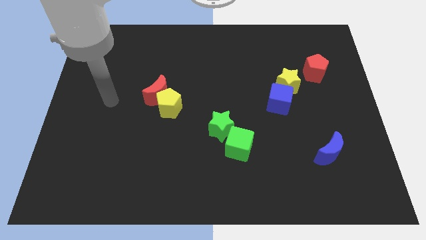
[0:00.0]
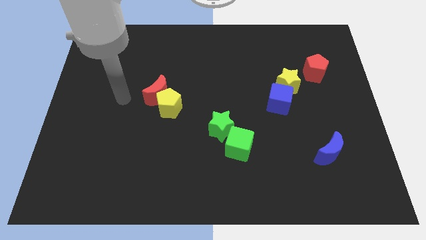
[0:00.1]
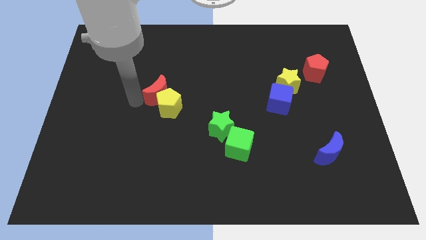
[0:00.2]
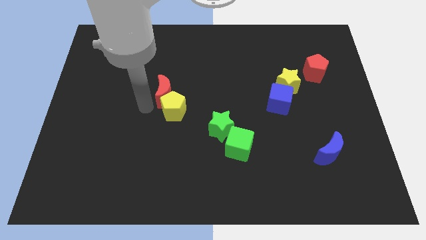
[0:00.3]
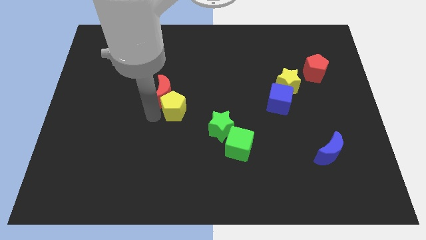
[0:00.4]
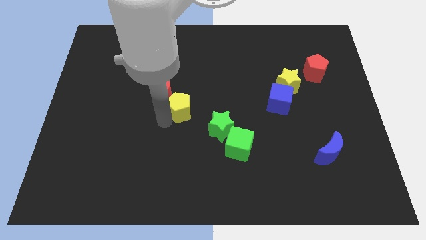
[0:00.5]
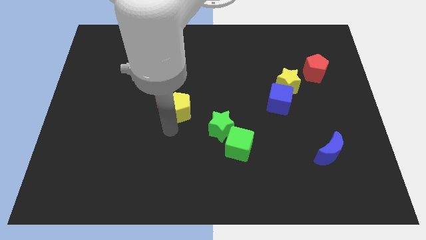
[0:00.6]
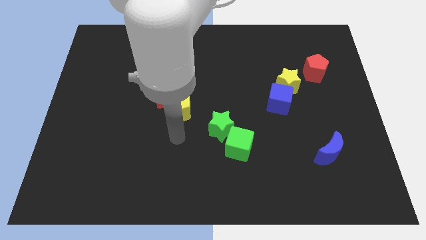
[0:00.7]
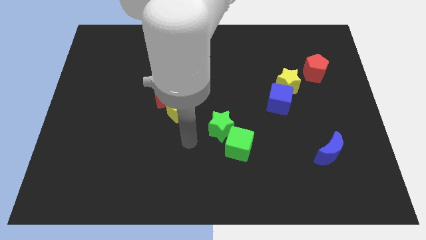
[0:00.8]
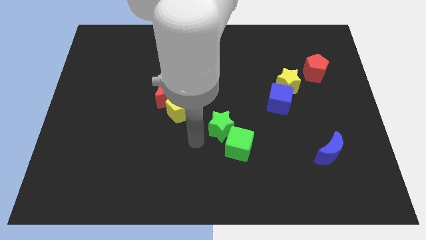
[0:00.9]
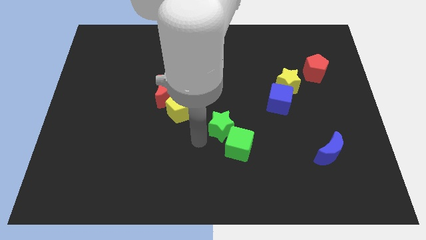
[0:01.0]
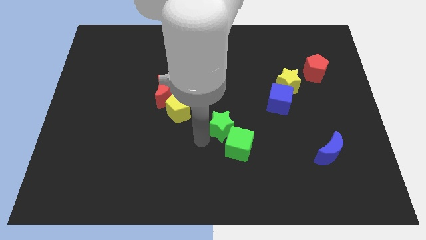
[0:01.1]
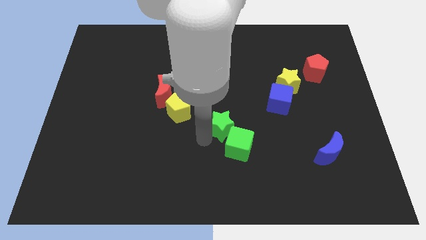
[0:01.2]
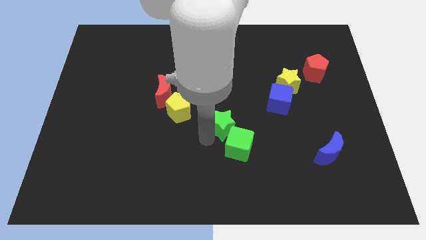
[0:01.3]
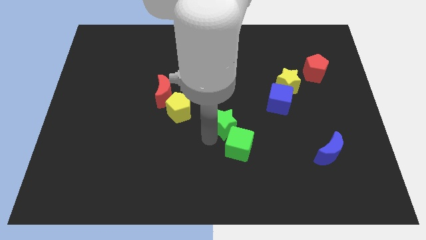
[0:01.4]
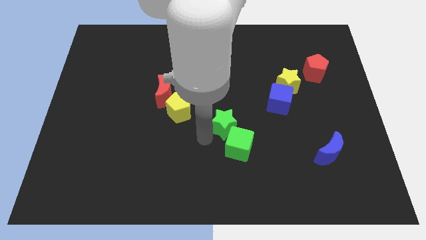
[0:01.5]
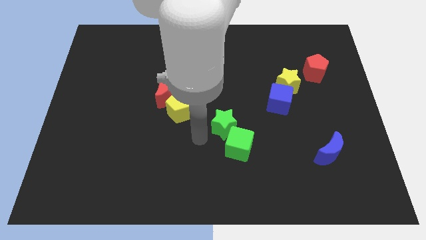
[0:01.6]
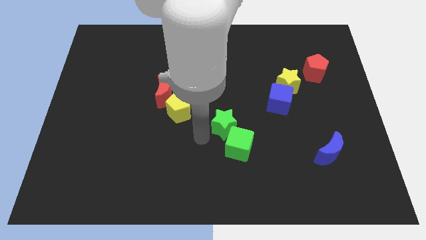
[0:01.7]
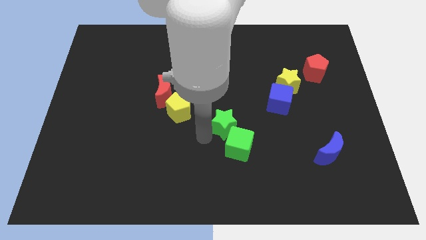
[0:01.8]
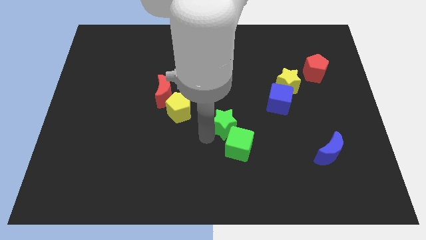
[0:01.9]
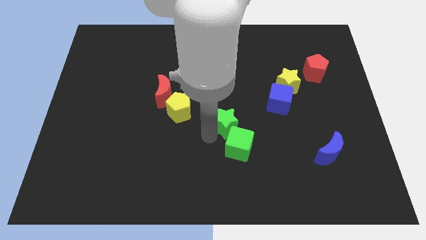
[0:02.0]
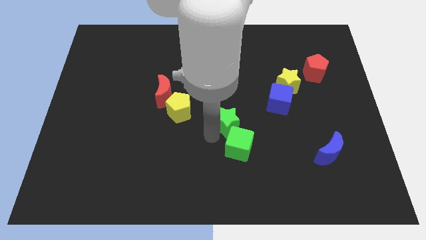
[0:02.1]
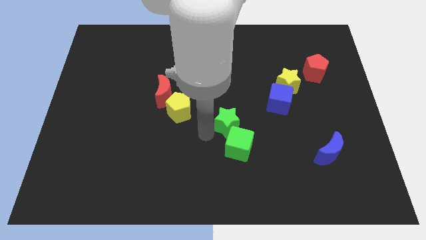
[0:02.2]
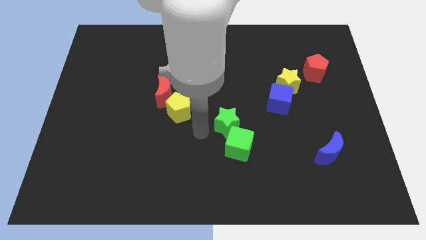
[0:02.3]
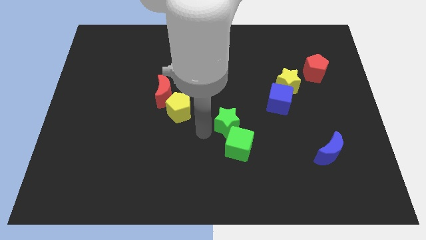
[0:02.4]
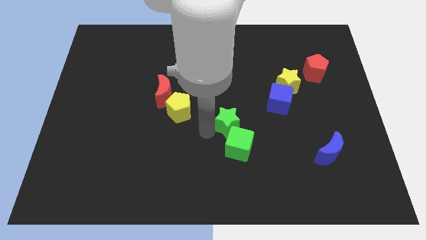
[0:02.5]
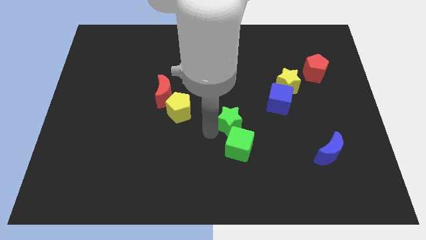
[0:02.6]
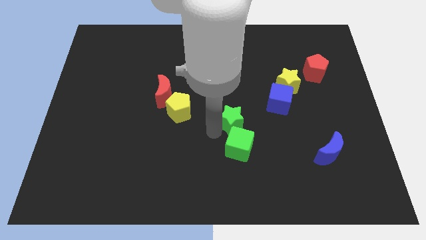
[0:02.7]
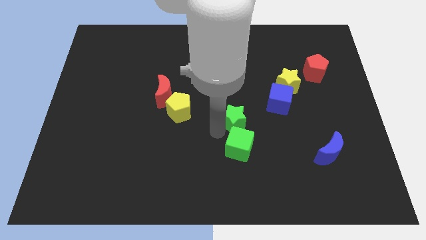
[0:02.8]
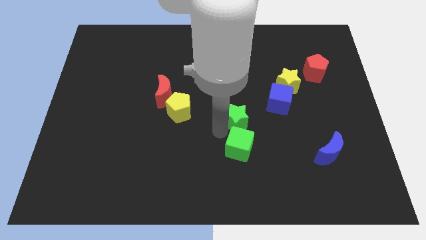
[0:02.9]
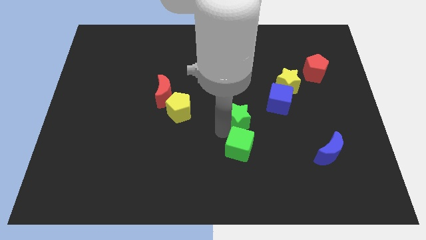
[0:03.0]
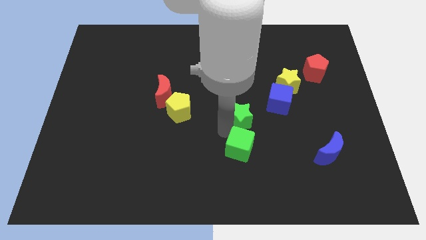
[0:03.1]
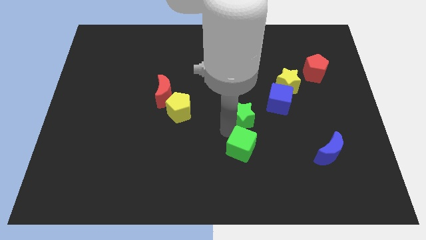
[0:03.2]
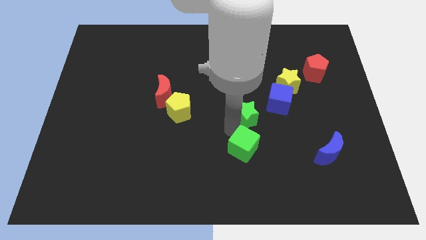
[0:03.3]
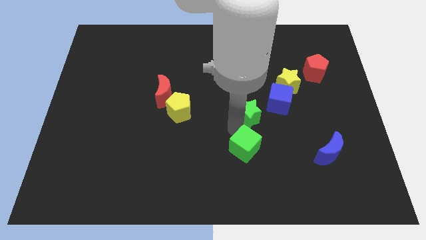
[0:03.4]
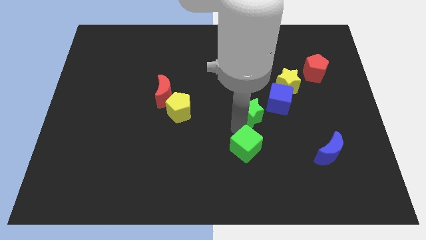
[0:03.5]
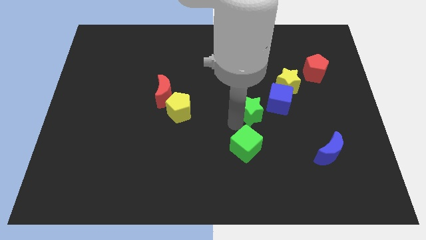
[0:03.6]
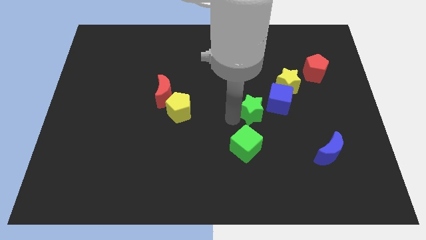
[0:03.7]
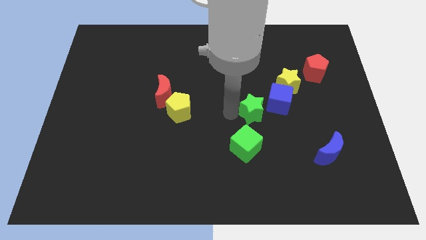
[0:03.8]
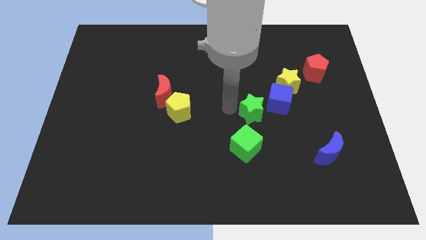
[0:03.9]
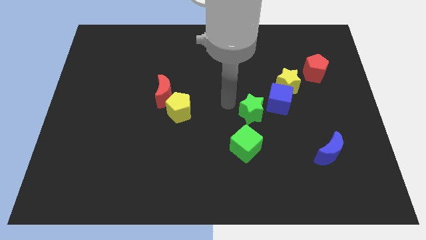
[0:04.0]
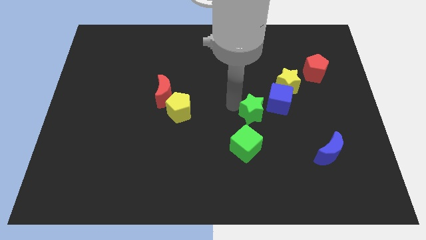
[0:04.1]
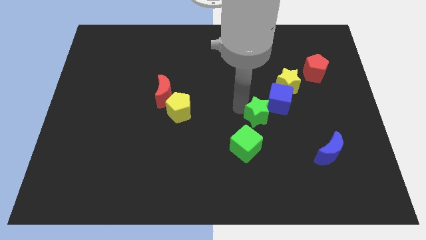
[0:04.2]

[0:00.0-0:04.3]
slide the green star slightly to the right

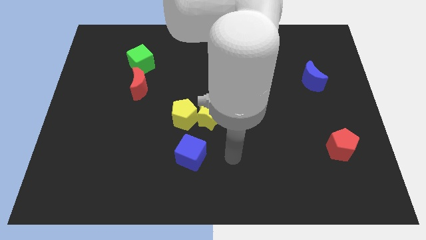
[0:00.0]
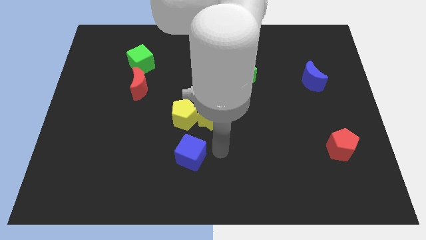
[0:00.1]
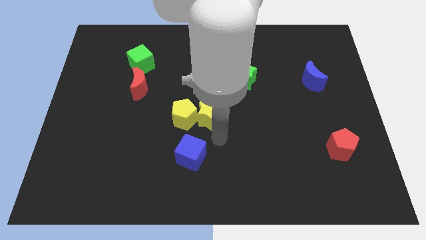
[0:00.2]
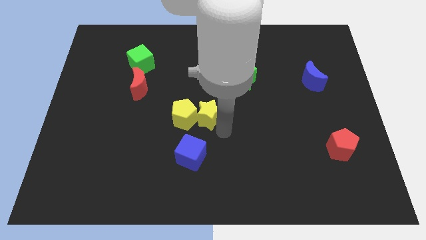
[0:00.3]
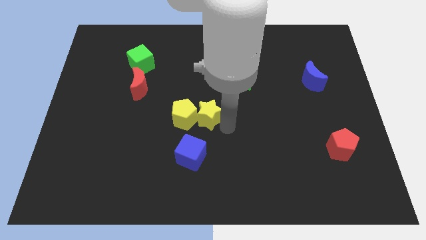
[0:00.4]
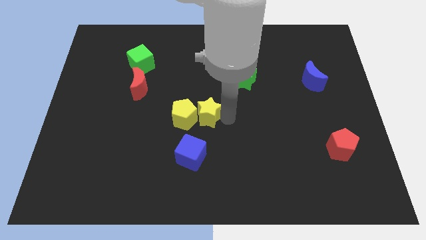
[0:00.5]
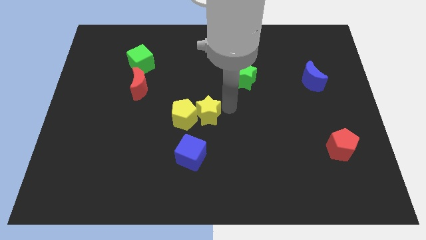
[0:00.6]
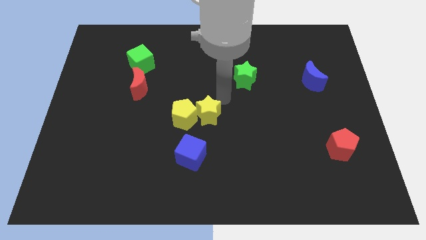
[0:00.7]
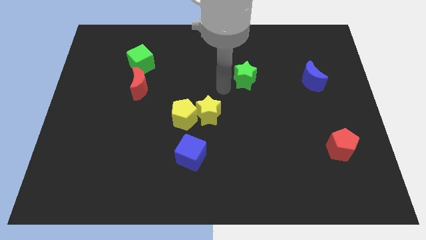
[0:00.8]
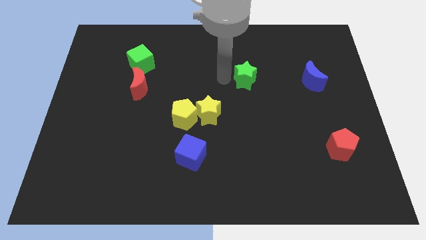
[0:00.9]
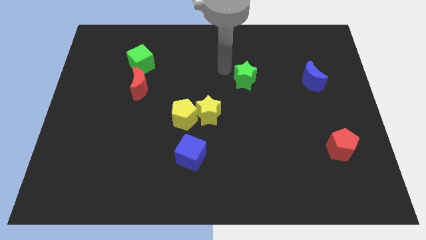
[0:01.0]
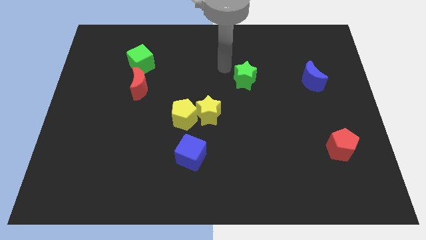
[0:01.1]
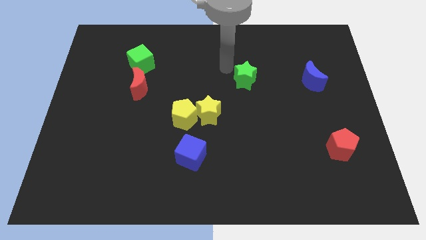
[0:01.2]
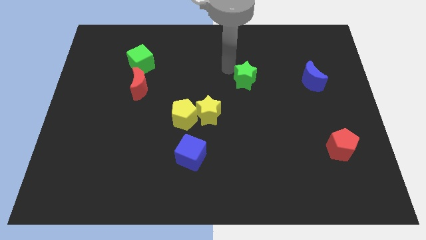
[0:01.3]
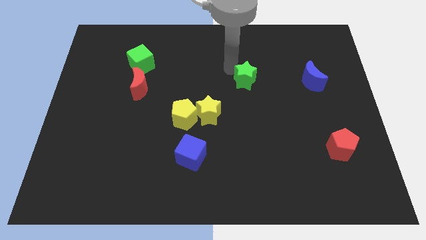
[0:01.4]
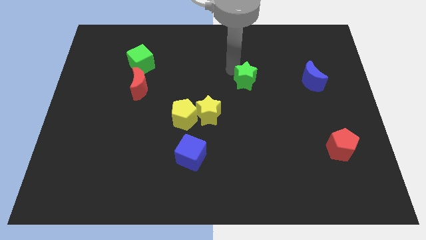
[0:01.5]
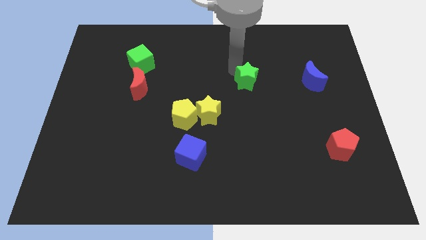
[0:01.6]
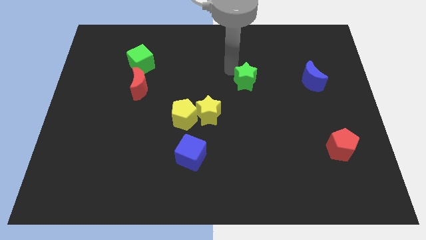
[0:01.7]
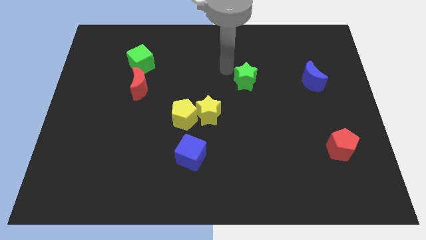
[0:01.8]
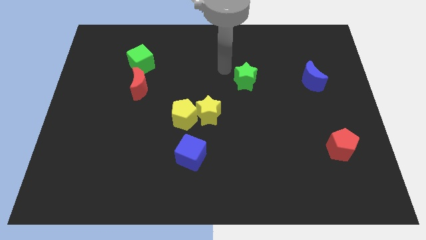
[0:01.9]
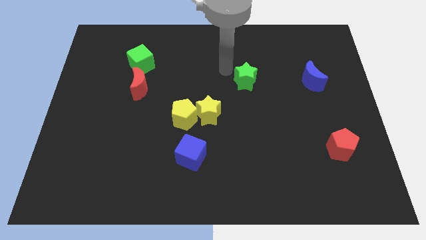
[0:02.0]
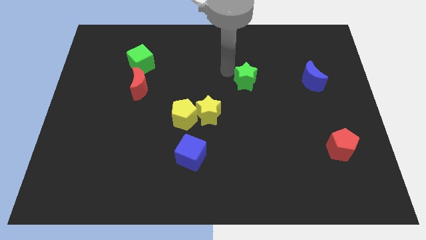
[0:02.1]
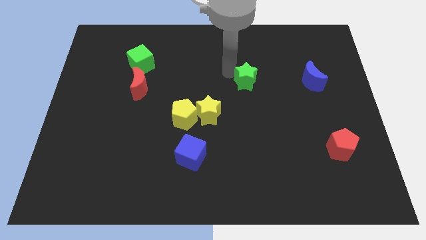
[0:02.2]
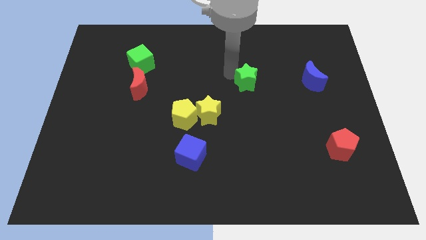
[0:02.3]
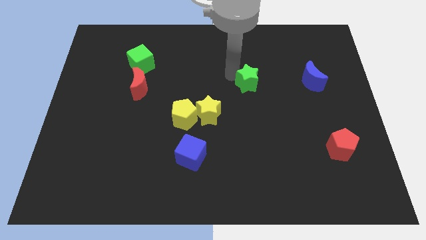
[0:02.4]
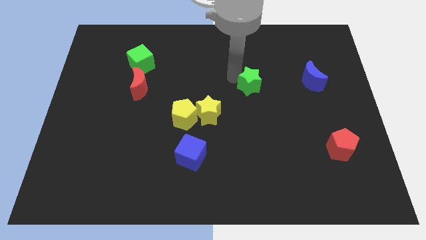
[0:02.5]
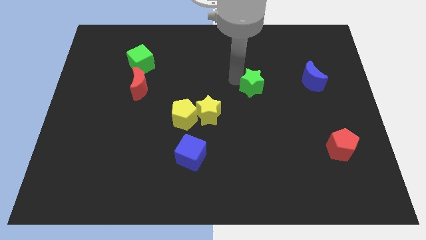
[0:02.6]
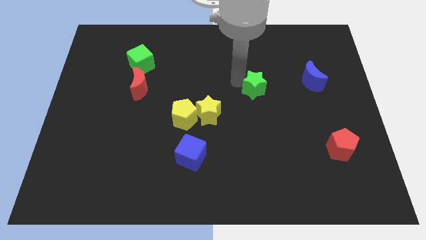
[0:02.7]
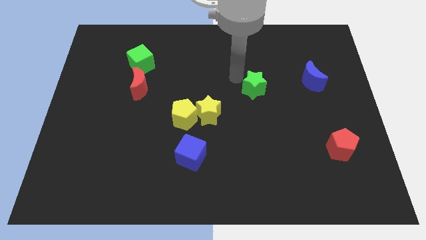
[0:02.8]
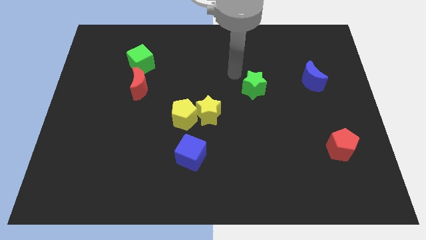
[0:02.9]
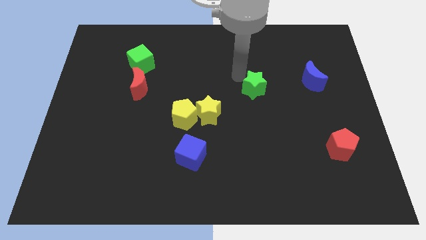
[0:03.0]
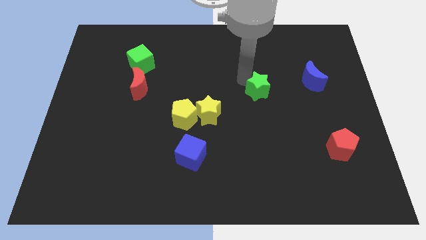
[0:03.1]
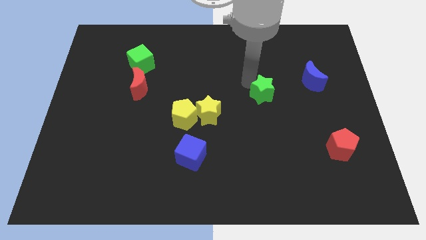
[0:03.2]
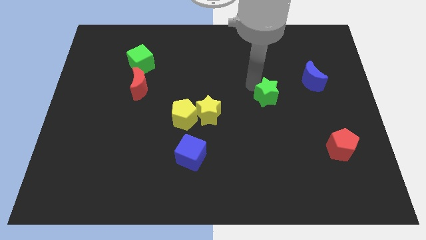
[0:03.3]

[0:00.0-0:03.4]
slide the green star downwards and then to the right a little bit

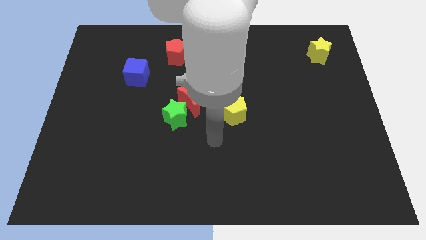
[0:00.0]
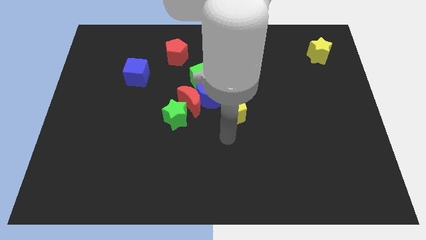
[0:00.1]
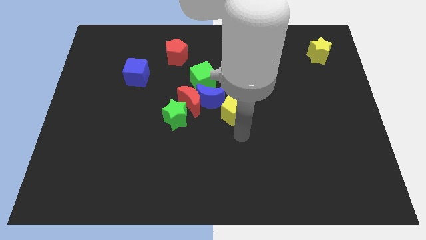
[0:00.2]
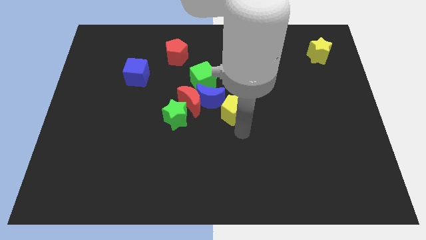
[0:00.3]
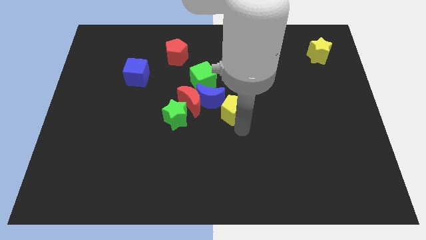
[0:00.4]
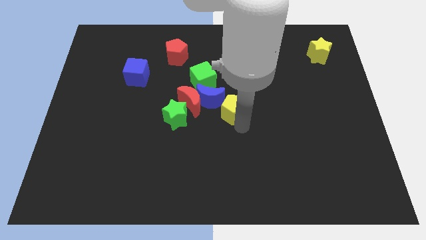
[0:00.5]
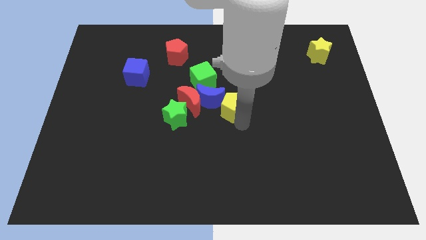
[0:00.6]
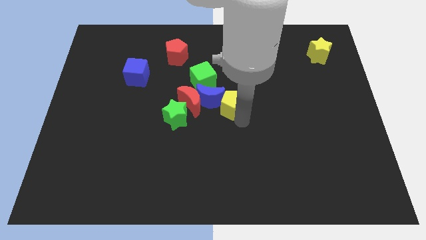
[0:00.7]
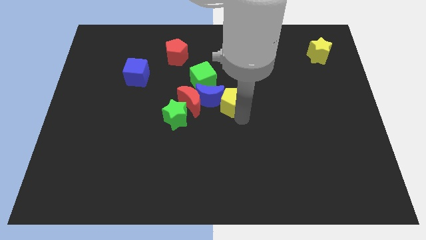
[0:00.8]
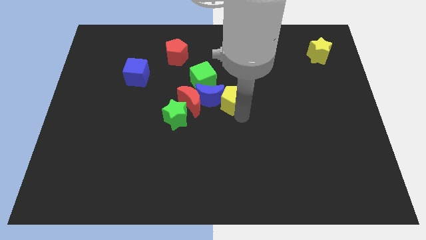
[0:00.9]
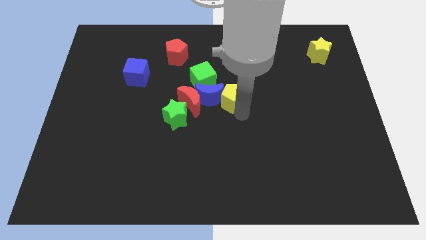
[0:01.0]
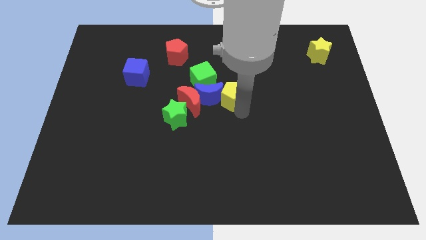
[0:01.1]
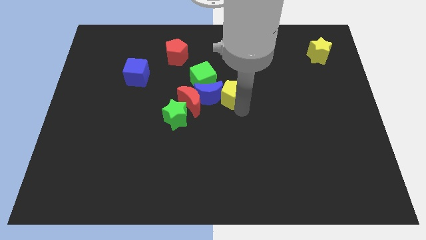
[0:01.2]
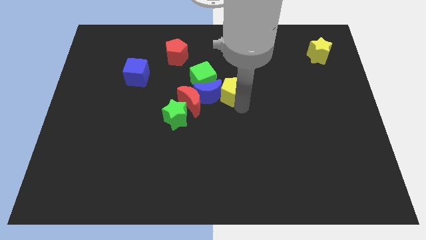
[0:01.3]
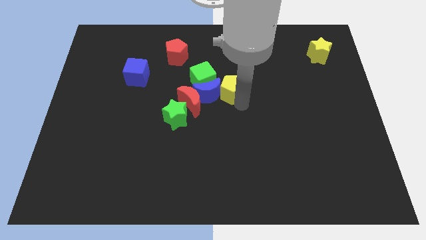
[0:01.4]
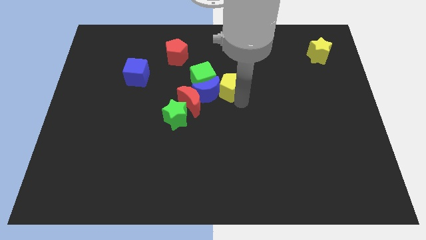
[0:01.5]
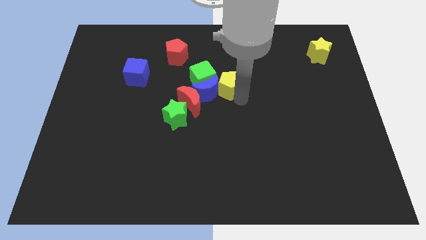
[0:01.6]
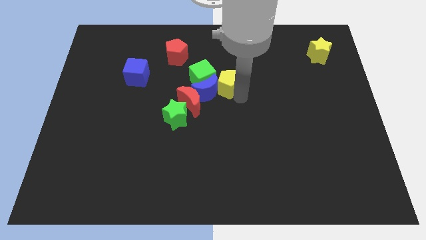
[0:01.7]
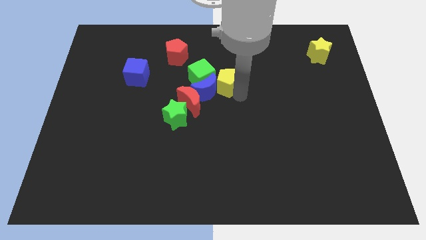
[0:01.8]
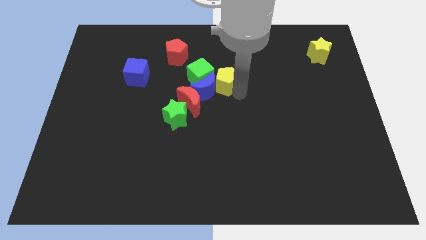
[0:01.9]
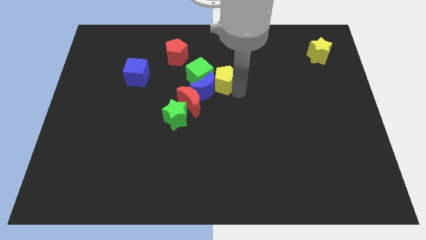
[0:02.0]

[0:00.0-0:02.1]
slide the yellow pentagon slightly diagonally up and left
